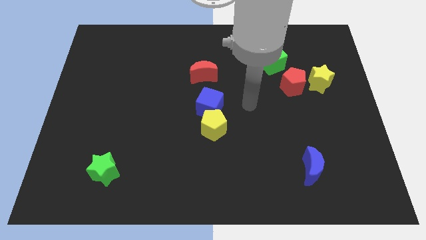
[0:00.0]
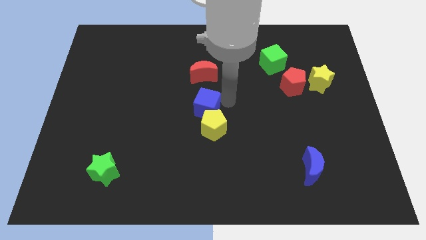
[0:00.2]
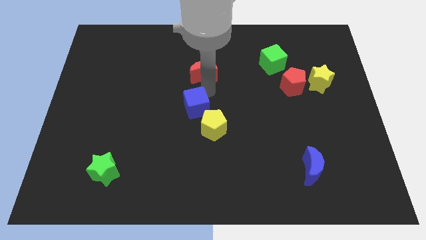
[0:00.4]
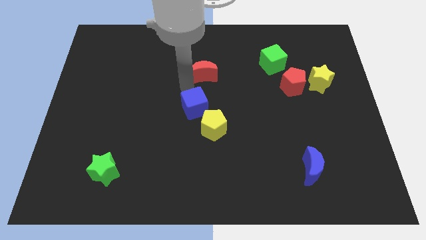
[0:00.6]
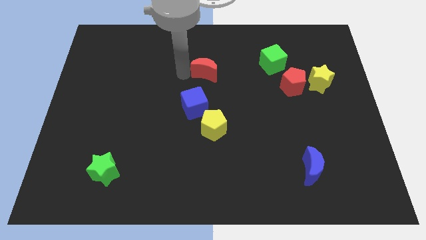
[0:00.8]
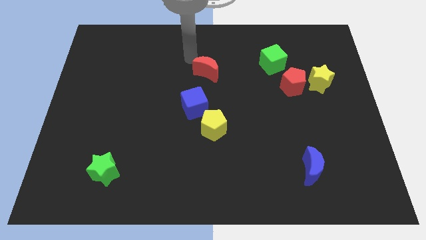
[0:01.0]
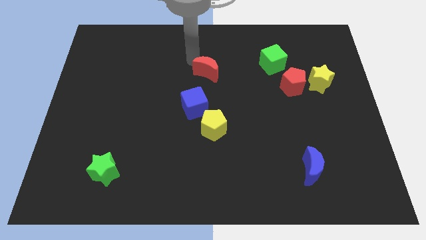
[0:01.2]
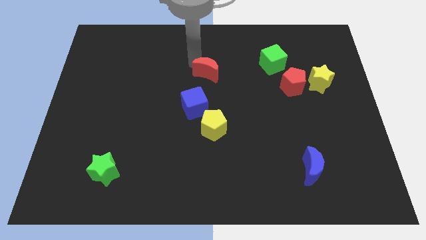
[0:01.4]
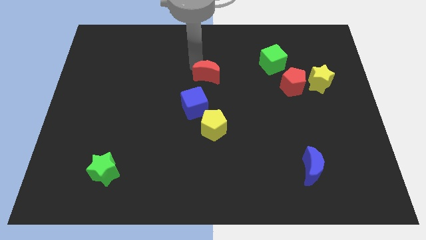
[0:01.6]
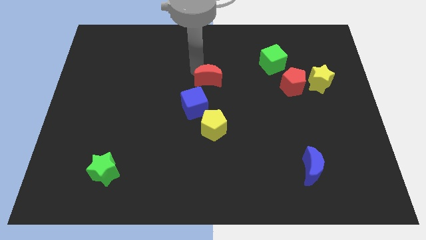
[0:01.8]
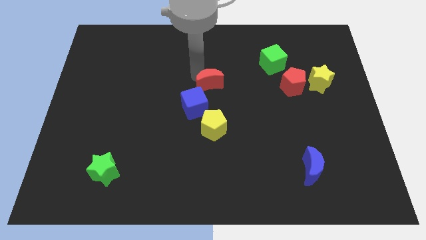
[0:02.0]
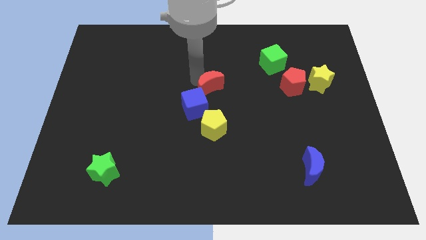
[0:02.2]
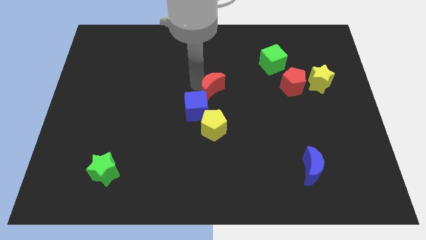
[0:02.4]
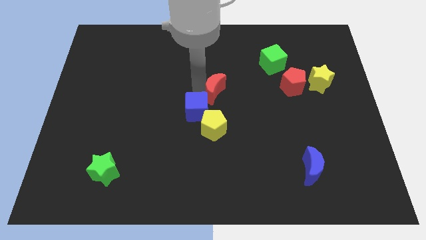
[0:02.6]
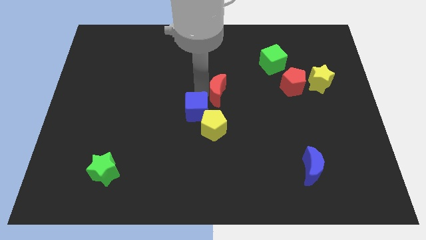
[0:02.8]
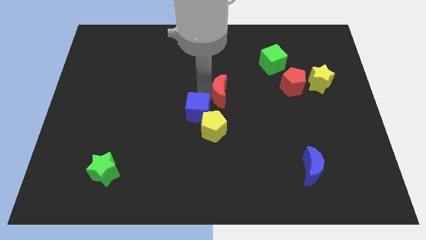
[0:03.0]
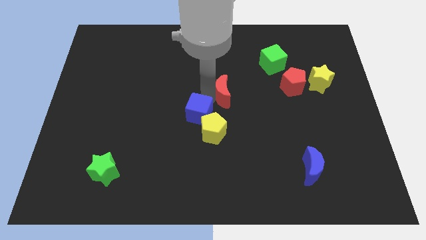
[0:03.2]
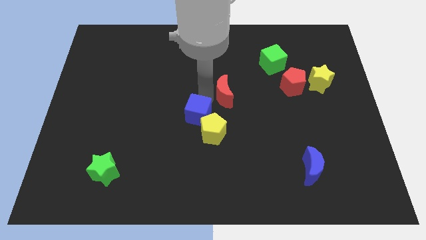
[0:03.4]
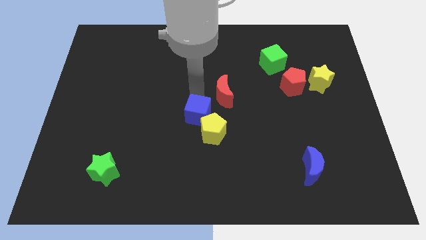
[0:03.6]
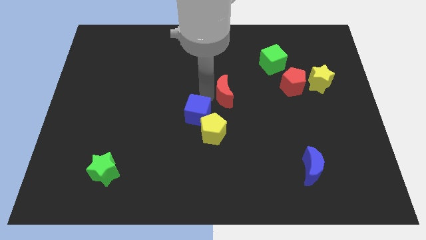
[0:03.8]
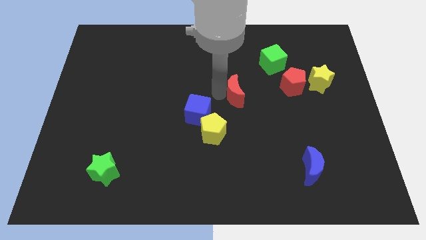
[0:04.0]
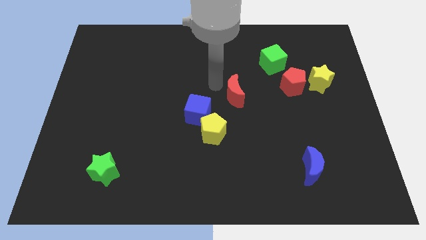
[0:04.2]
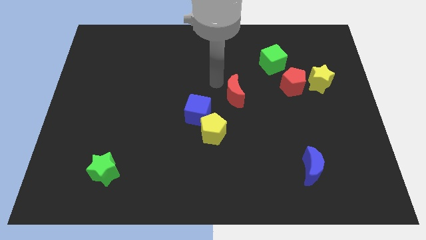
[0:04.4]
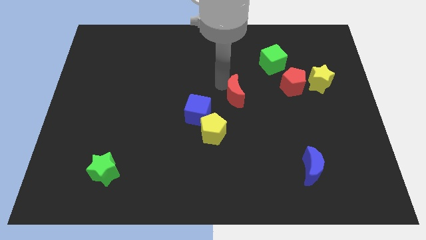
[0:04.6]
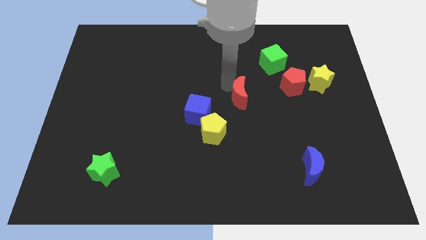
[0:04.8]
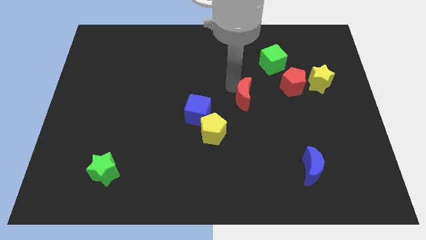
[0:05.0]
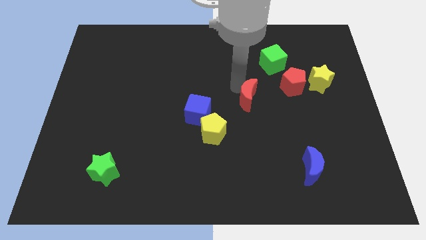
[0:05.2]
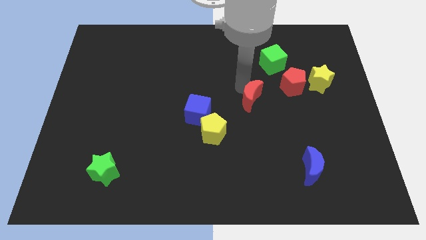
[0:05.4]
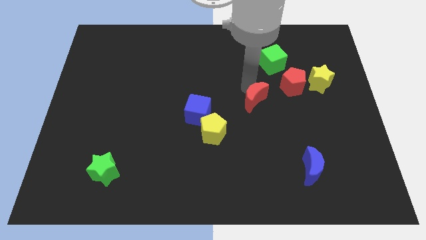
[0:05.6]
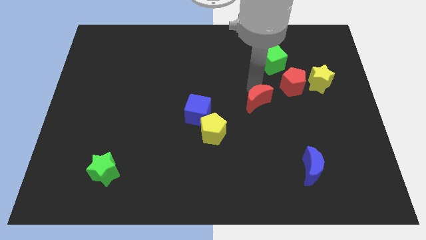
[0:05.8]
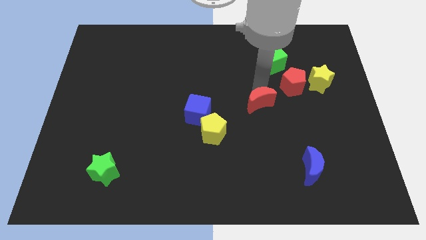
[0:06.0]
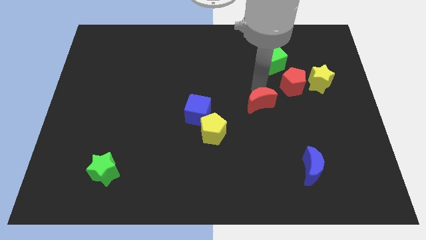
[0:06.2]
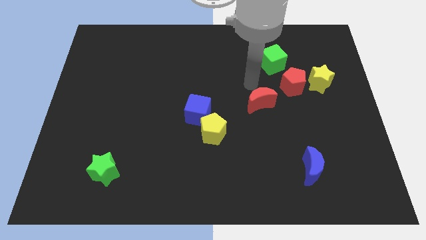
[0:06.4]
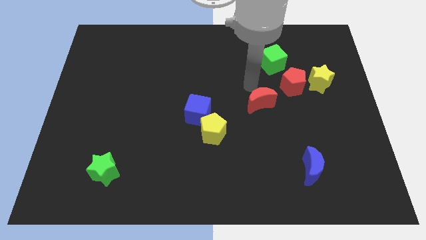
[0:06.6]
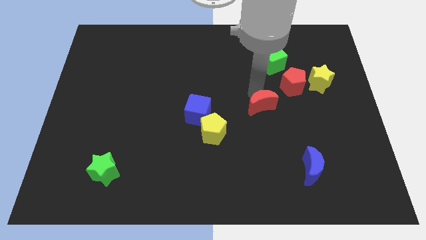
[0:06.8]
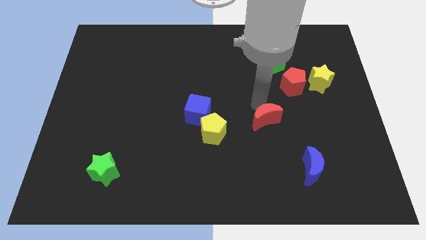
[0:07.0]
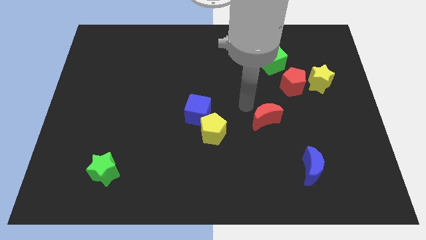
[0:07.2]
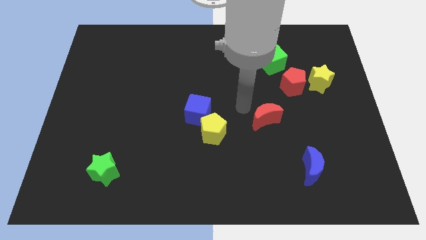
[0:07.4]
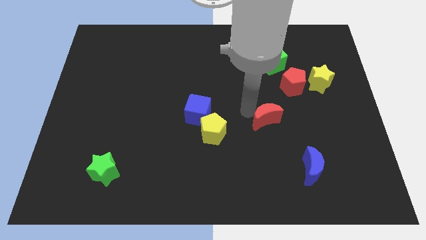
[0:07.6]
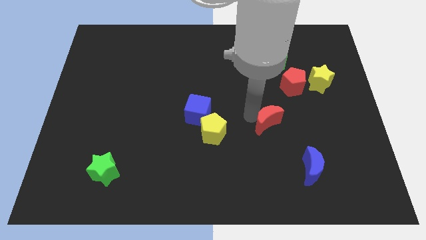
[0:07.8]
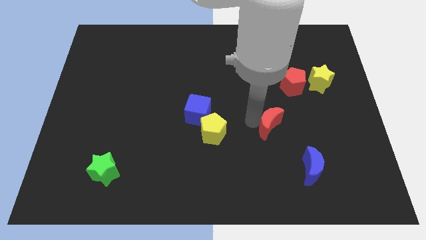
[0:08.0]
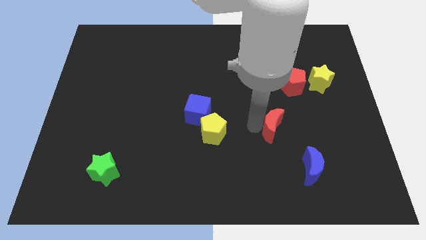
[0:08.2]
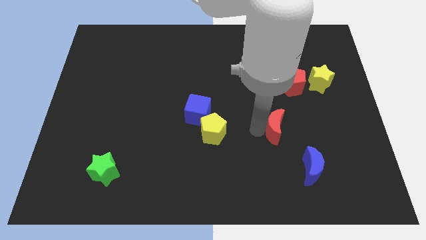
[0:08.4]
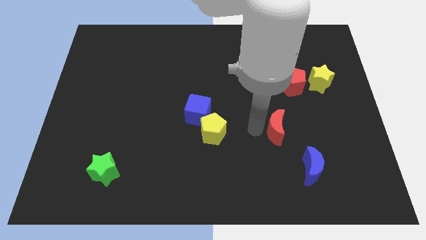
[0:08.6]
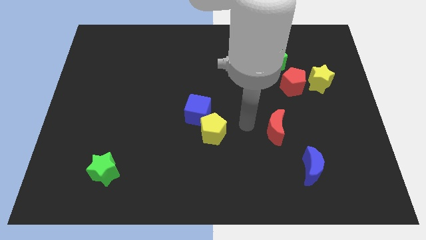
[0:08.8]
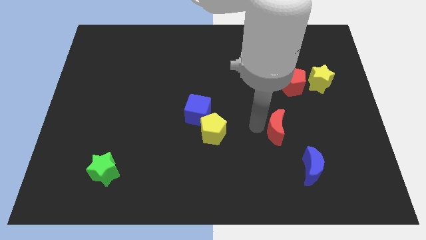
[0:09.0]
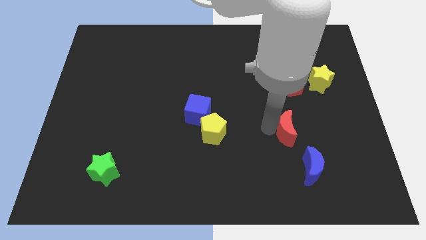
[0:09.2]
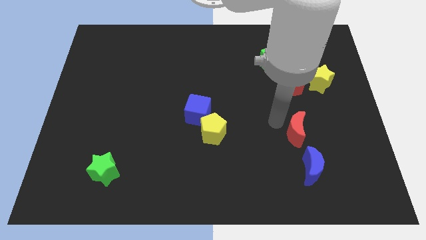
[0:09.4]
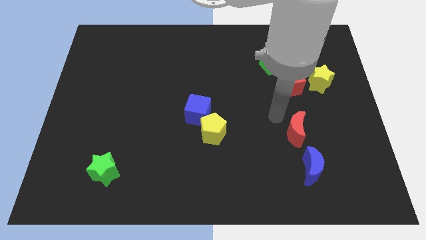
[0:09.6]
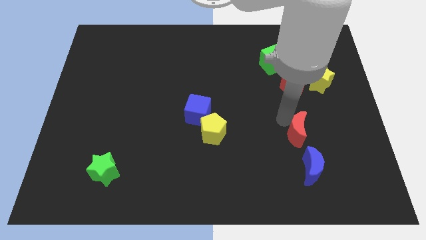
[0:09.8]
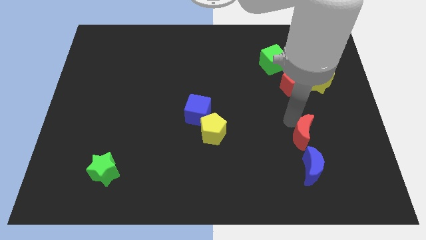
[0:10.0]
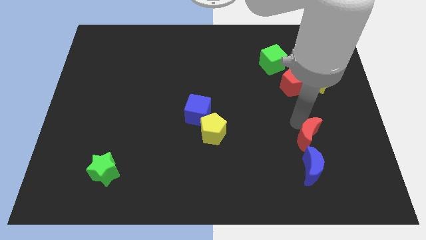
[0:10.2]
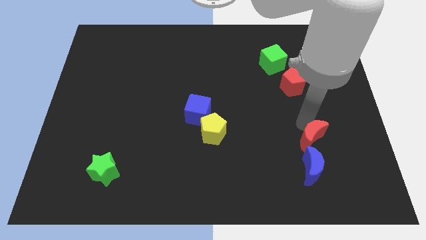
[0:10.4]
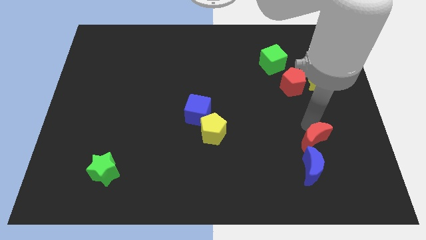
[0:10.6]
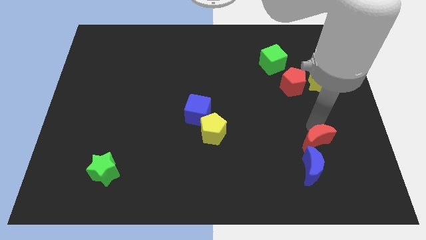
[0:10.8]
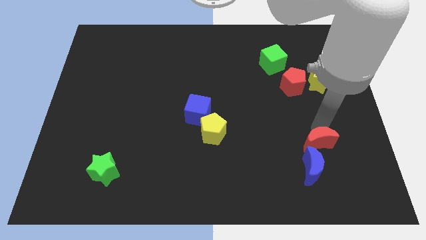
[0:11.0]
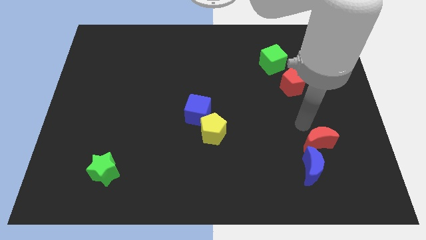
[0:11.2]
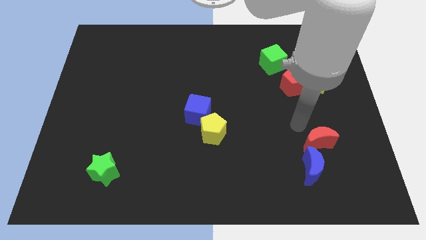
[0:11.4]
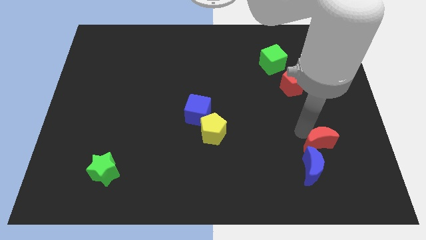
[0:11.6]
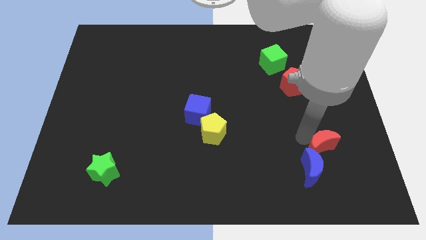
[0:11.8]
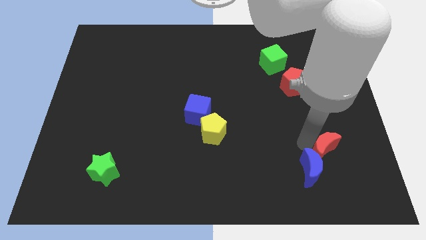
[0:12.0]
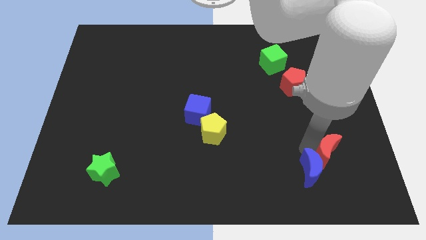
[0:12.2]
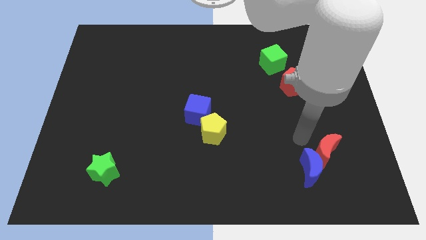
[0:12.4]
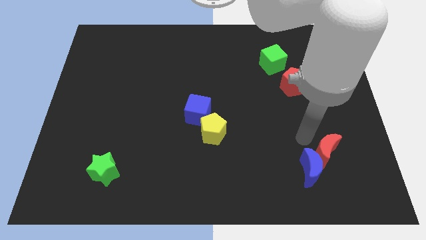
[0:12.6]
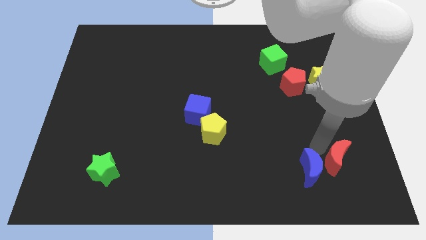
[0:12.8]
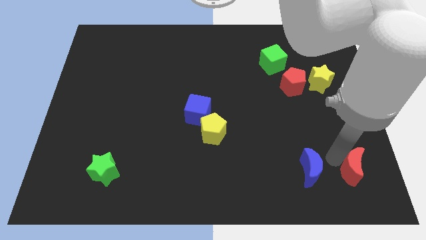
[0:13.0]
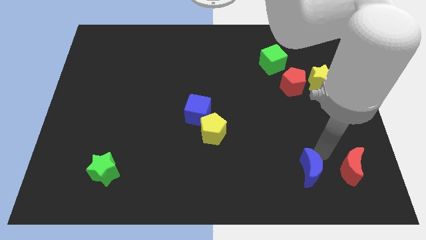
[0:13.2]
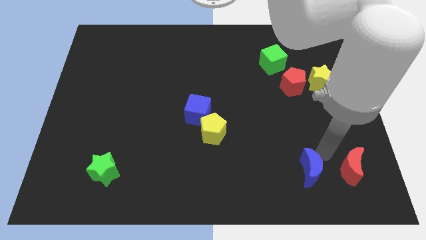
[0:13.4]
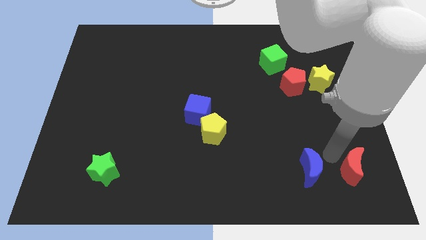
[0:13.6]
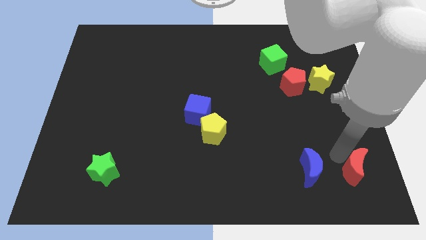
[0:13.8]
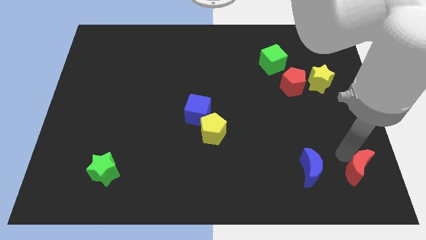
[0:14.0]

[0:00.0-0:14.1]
slide the red moon to the bottom right corner
